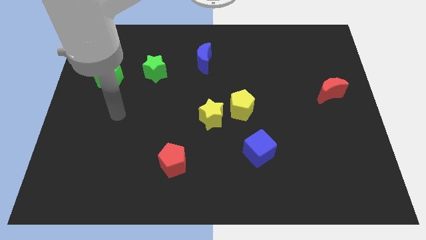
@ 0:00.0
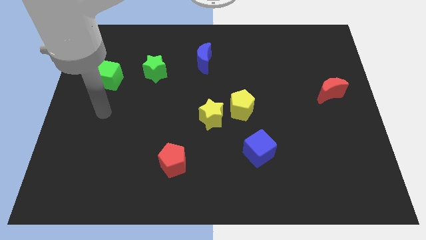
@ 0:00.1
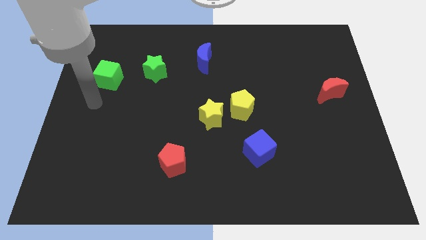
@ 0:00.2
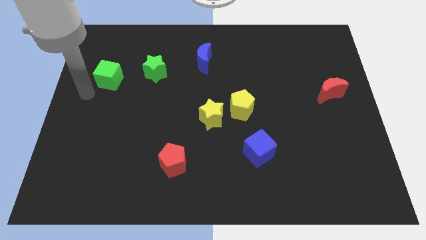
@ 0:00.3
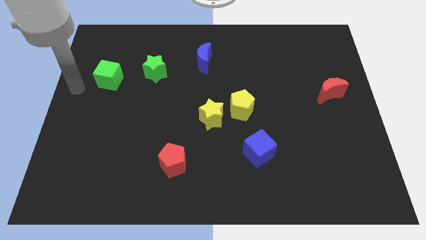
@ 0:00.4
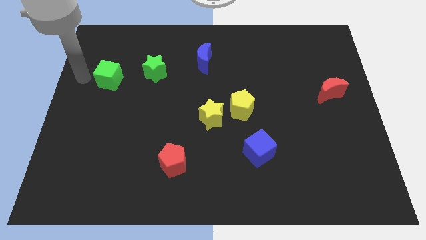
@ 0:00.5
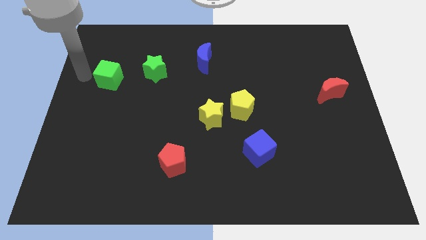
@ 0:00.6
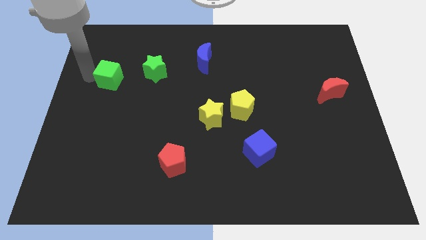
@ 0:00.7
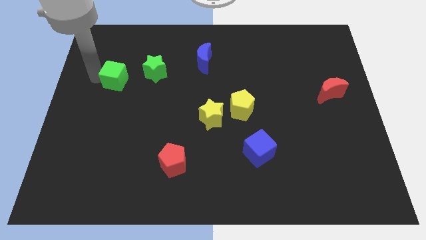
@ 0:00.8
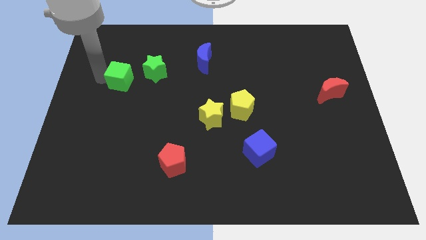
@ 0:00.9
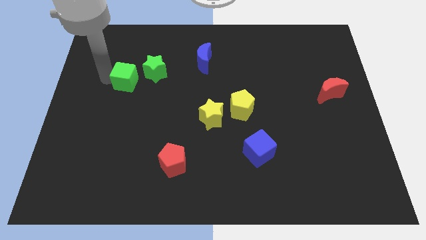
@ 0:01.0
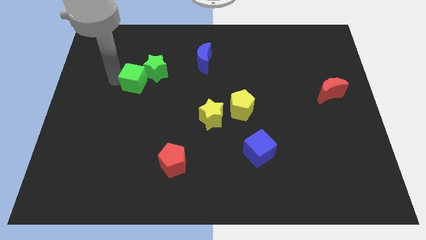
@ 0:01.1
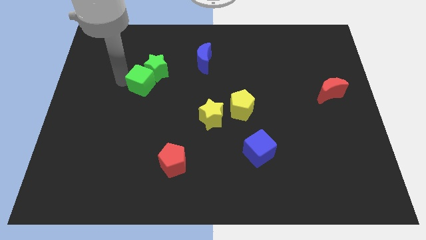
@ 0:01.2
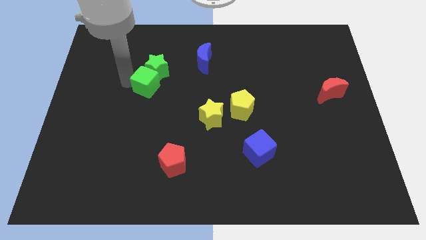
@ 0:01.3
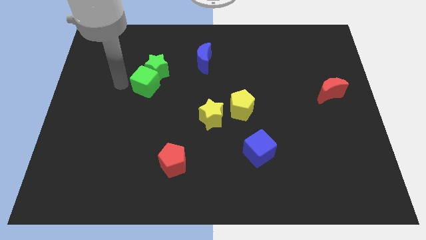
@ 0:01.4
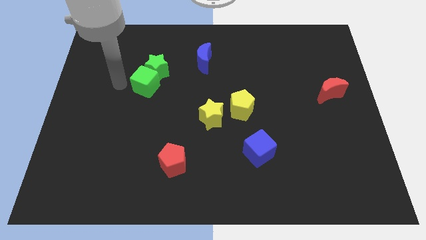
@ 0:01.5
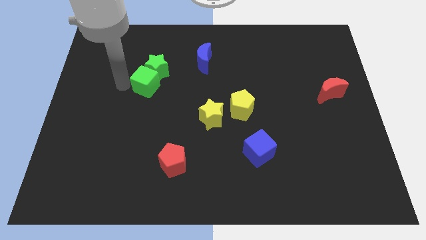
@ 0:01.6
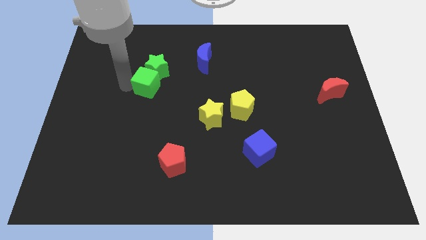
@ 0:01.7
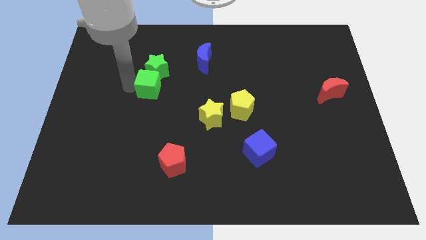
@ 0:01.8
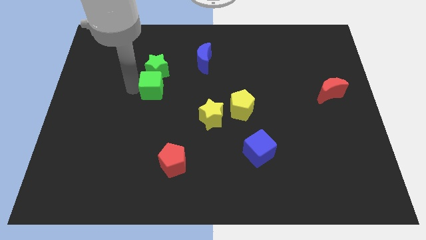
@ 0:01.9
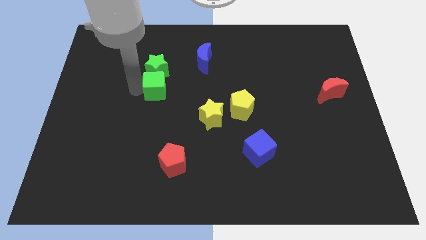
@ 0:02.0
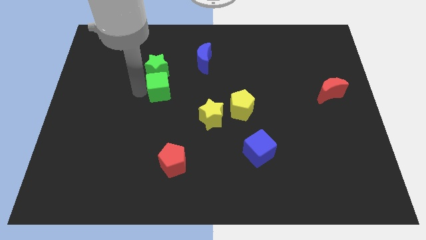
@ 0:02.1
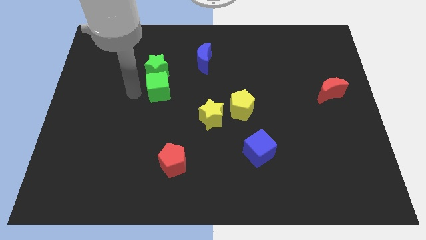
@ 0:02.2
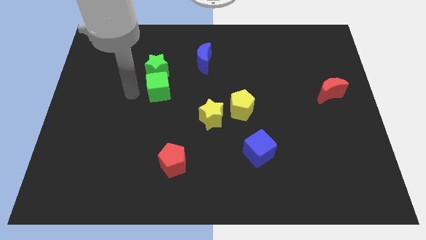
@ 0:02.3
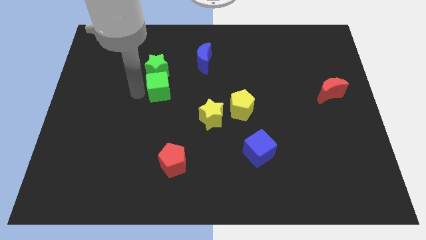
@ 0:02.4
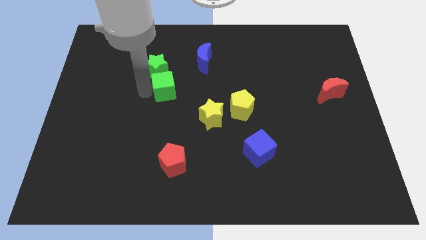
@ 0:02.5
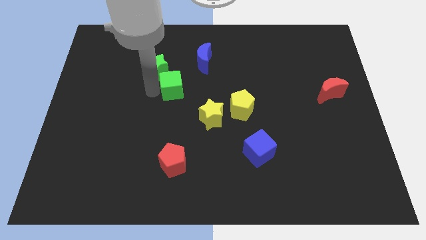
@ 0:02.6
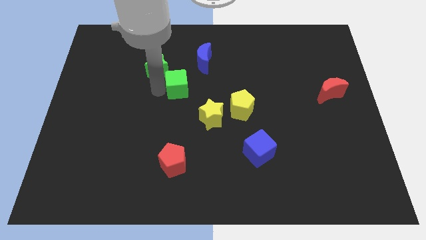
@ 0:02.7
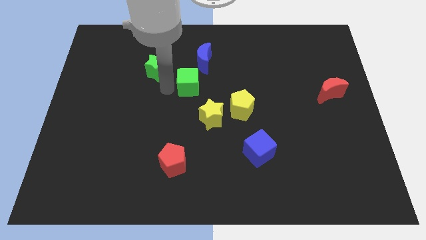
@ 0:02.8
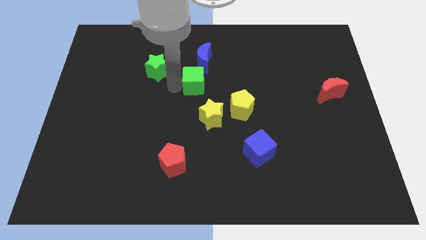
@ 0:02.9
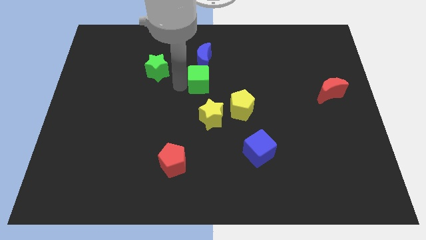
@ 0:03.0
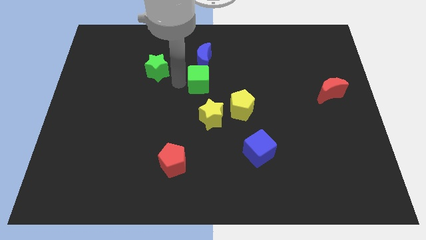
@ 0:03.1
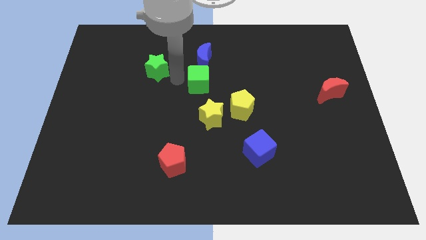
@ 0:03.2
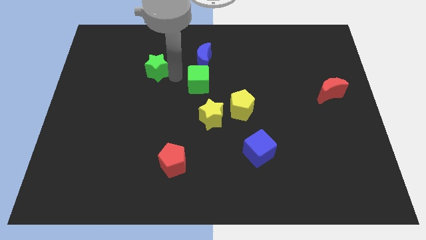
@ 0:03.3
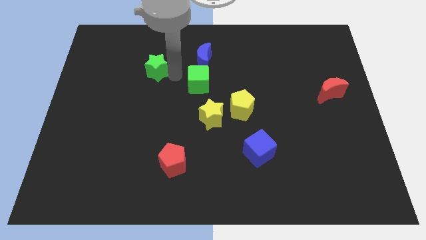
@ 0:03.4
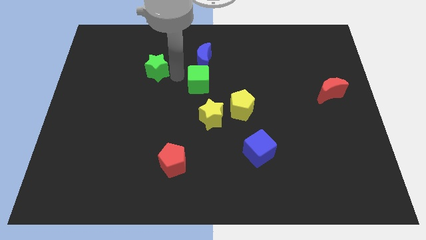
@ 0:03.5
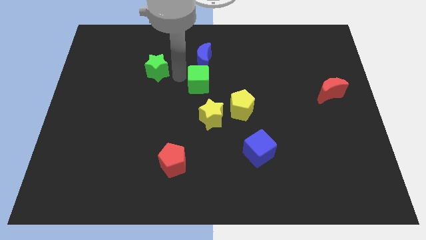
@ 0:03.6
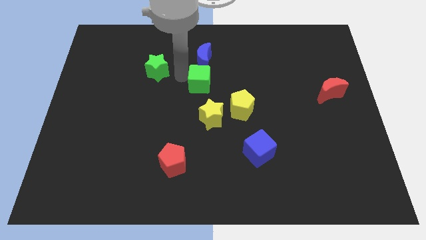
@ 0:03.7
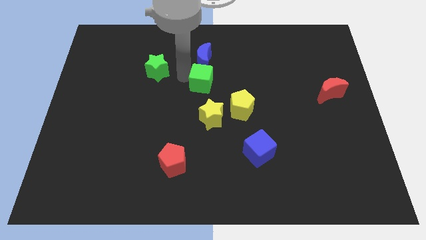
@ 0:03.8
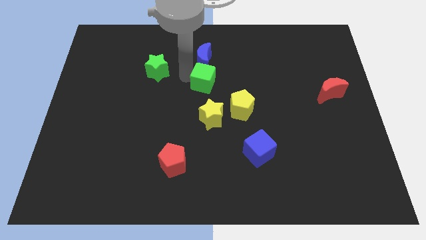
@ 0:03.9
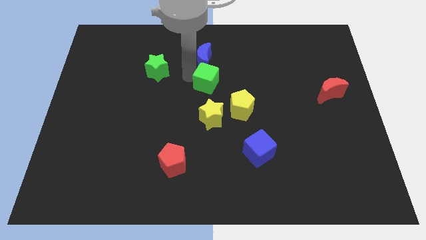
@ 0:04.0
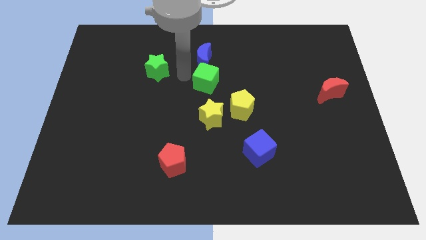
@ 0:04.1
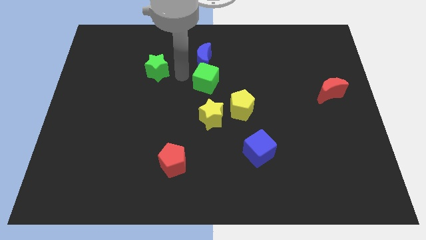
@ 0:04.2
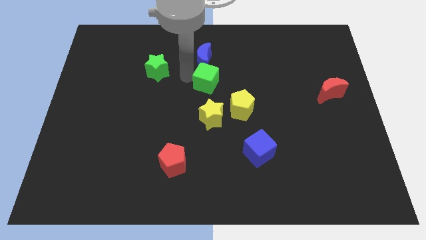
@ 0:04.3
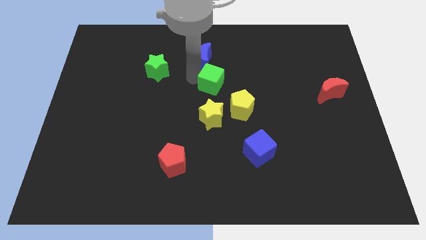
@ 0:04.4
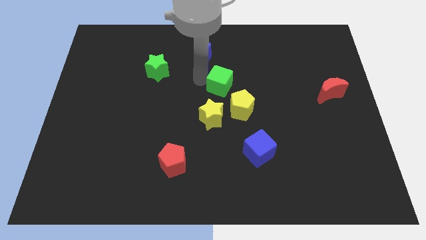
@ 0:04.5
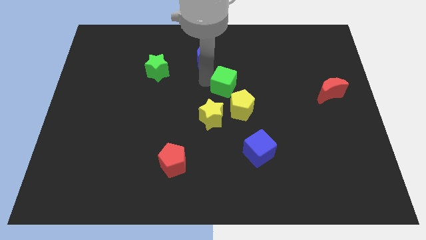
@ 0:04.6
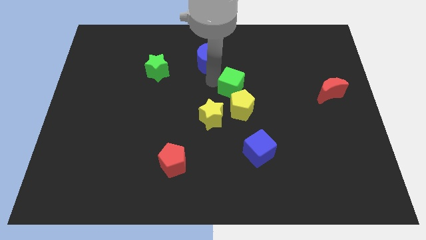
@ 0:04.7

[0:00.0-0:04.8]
slide the green cube to the top right of the yellow star

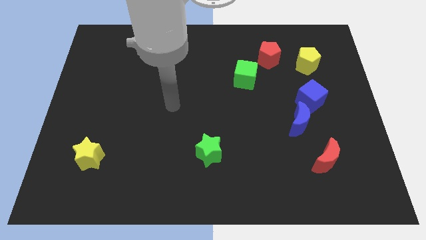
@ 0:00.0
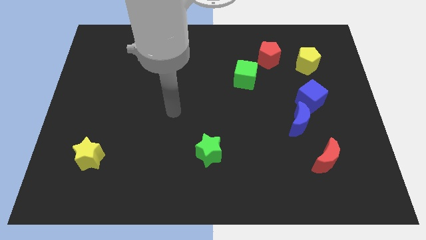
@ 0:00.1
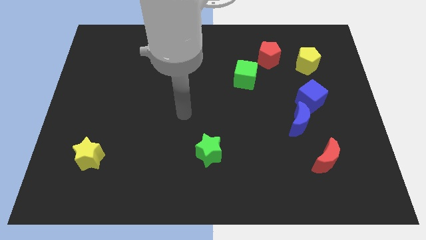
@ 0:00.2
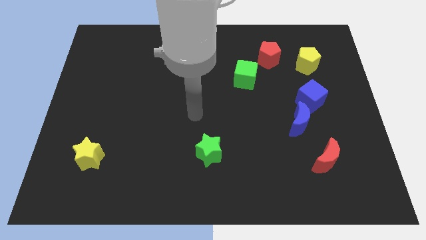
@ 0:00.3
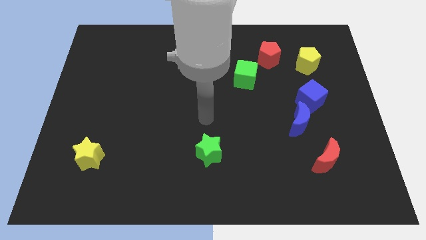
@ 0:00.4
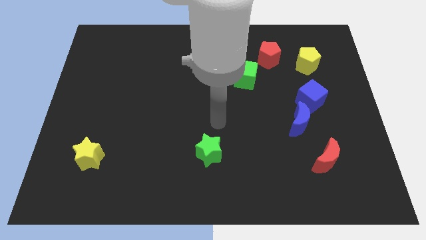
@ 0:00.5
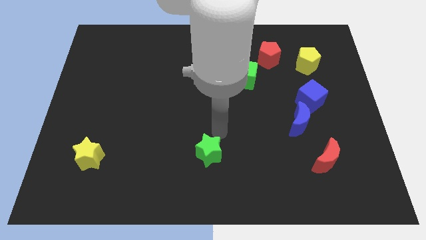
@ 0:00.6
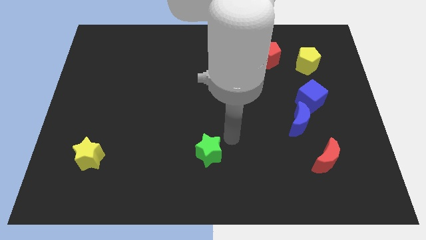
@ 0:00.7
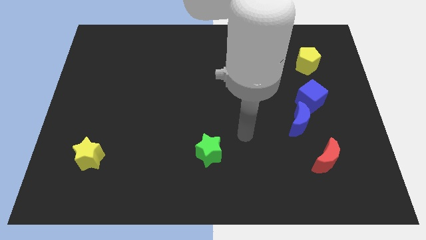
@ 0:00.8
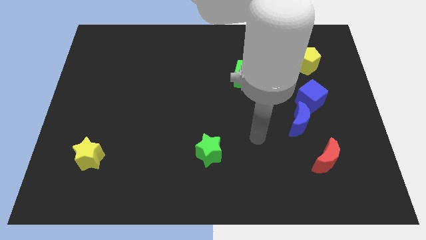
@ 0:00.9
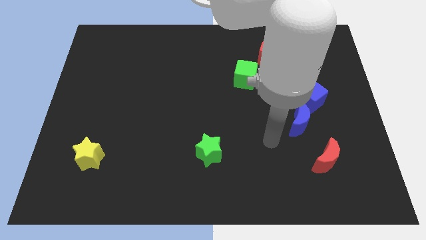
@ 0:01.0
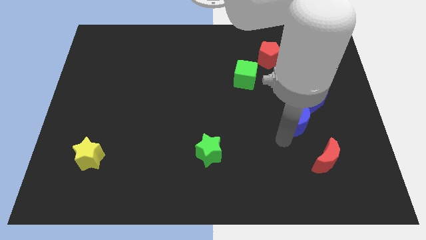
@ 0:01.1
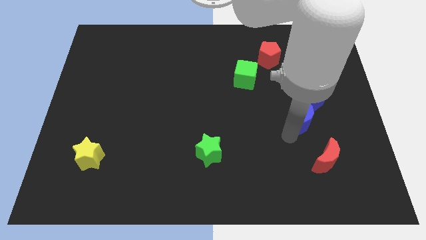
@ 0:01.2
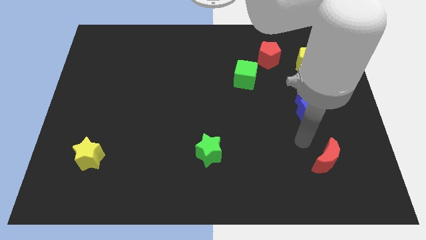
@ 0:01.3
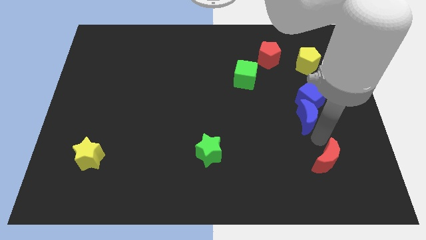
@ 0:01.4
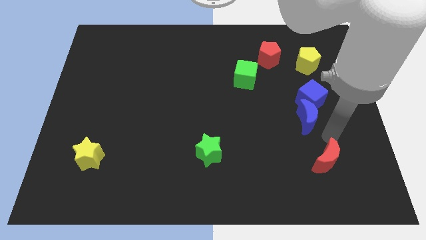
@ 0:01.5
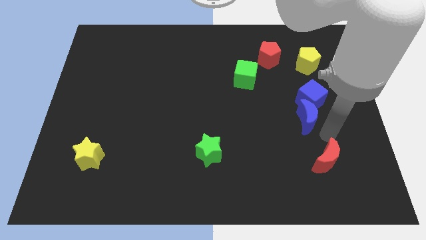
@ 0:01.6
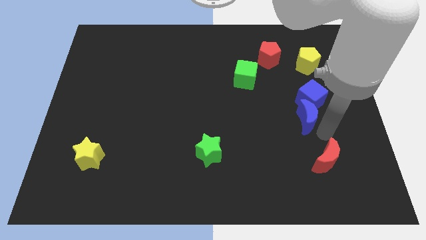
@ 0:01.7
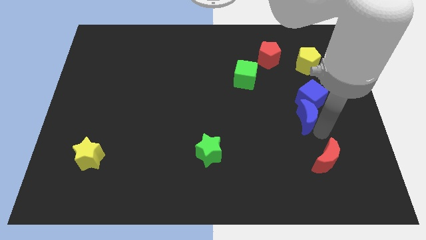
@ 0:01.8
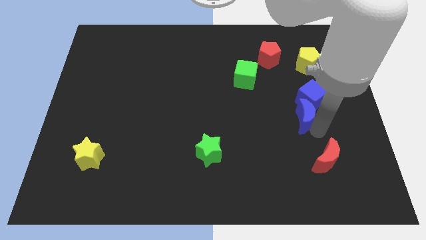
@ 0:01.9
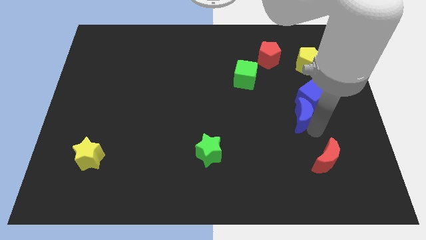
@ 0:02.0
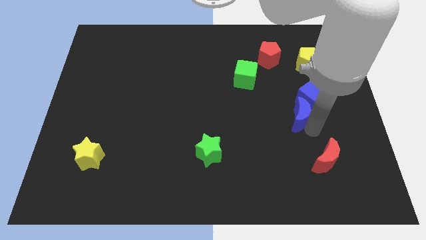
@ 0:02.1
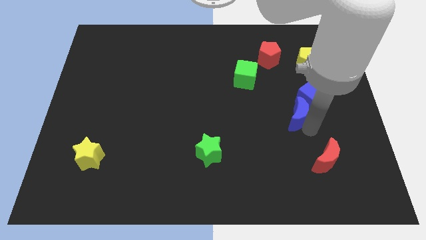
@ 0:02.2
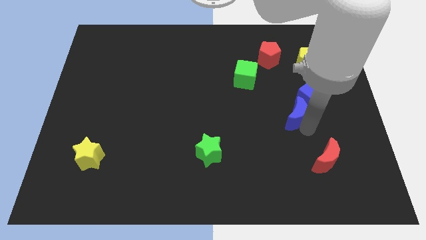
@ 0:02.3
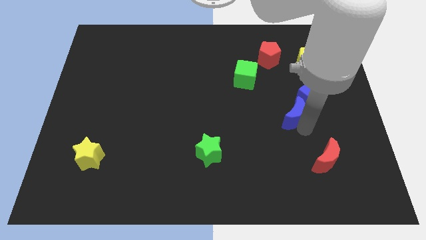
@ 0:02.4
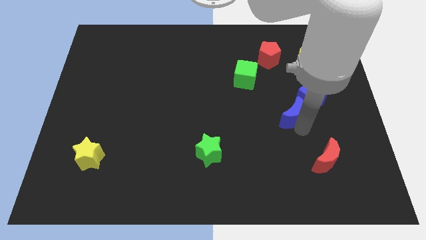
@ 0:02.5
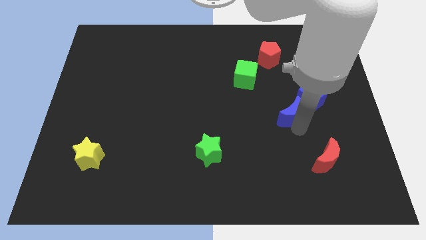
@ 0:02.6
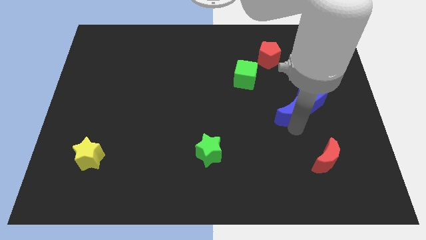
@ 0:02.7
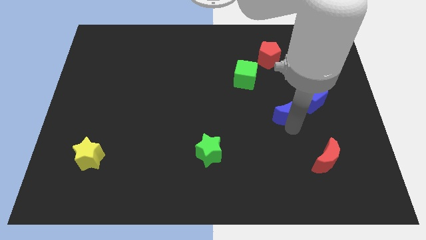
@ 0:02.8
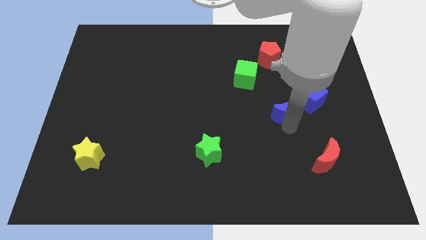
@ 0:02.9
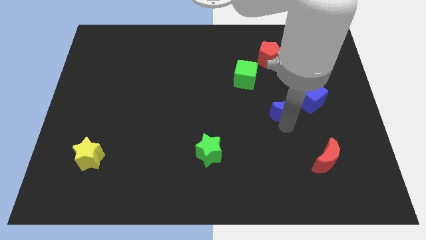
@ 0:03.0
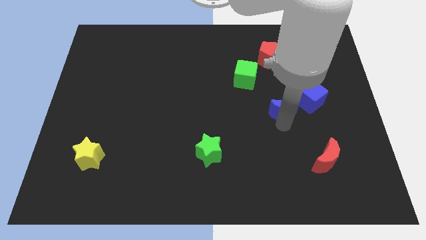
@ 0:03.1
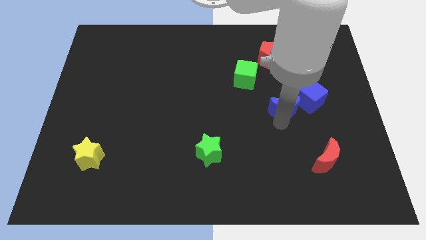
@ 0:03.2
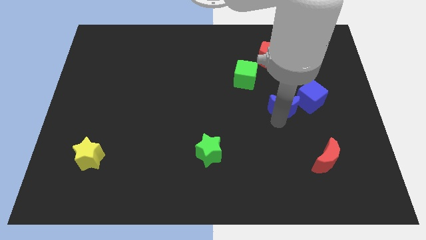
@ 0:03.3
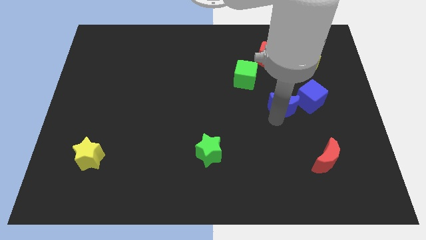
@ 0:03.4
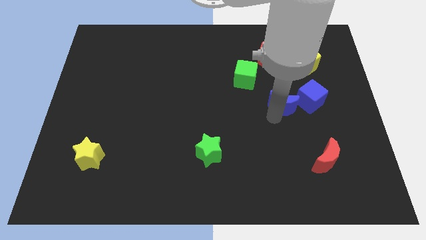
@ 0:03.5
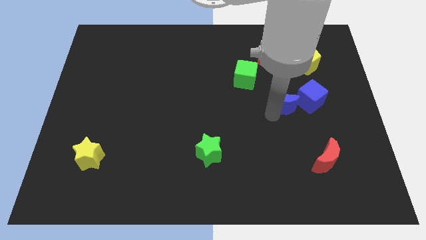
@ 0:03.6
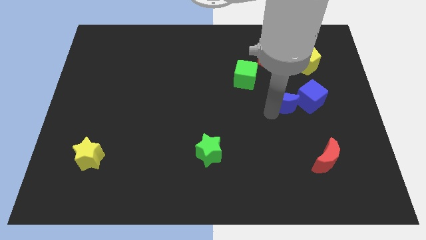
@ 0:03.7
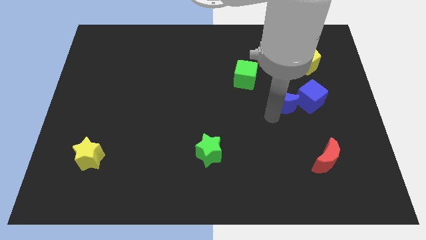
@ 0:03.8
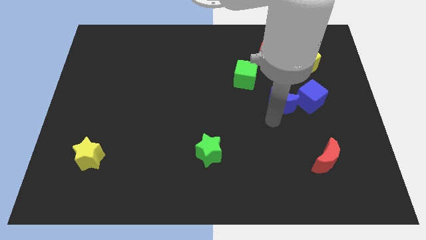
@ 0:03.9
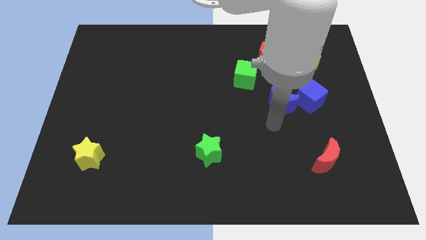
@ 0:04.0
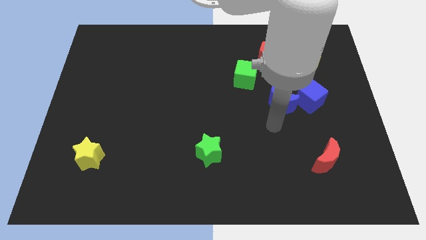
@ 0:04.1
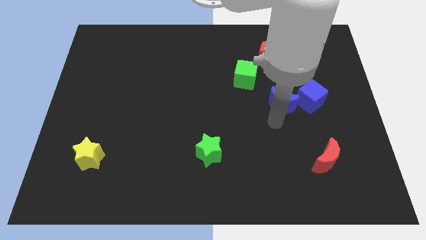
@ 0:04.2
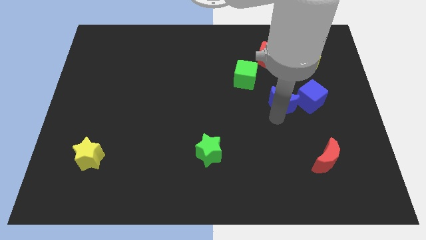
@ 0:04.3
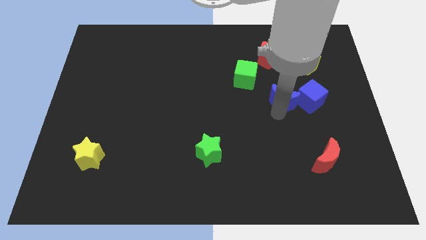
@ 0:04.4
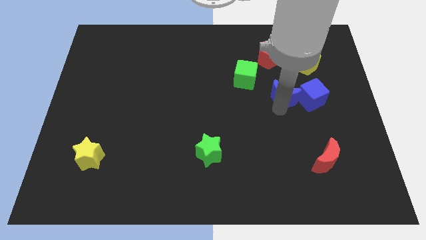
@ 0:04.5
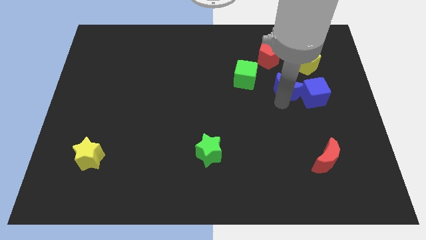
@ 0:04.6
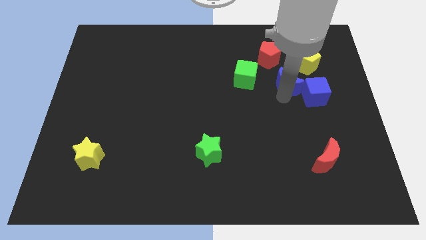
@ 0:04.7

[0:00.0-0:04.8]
slide the blue moon diagonally down and to the right of the red pentagon
